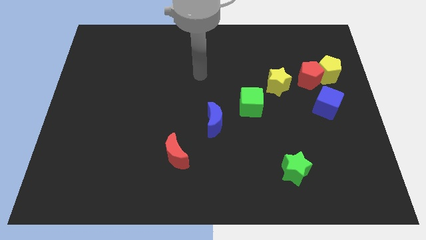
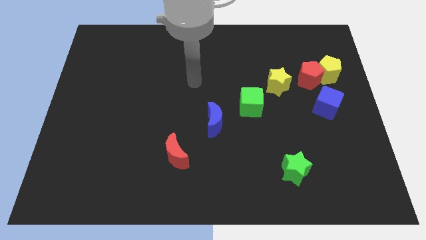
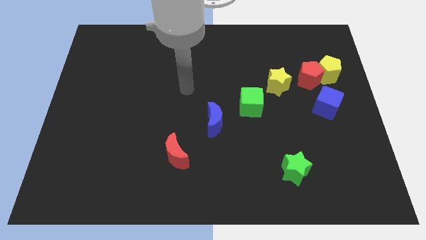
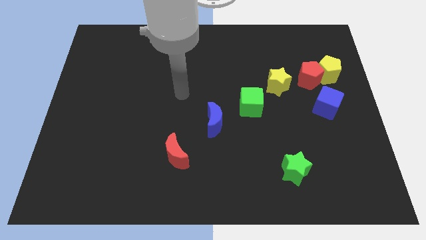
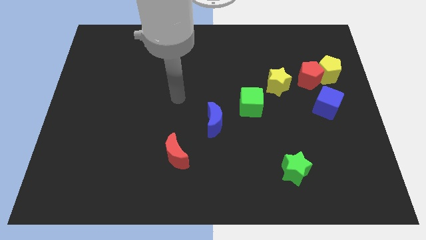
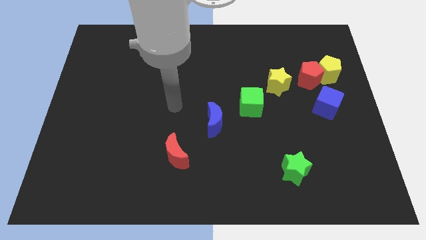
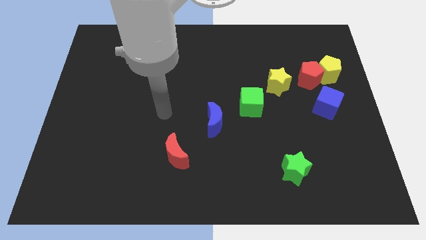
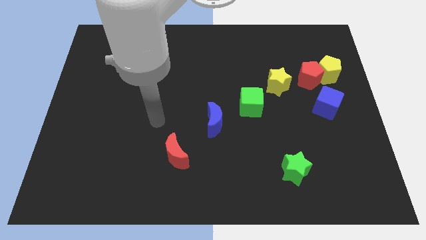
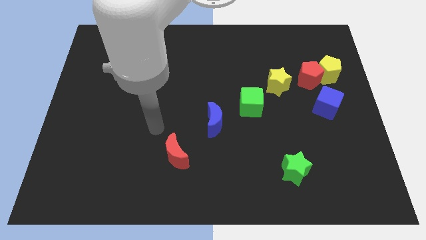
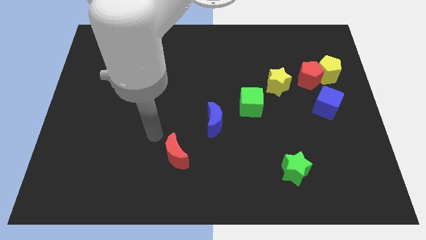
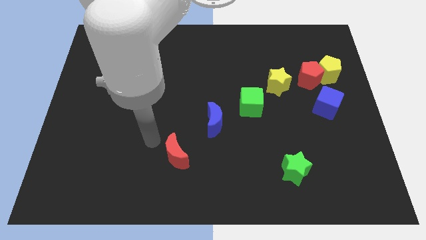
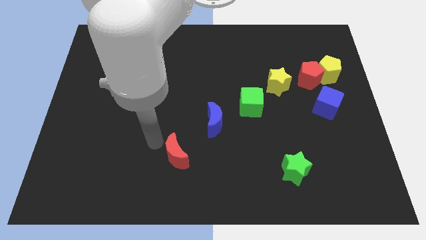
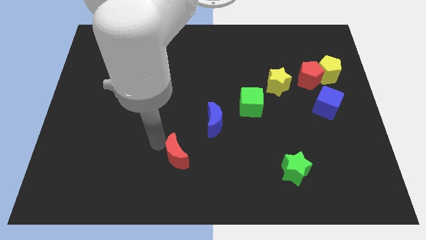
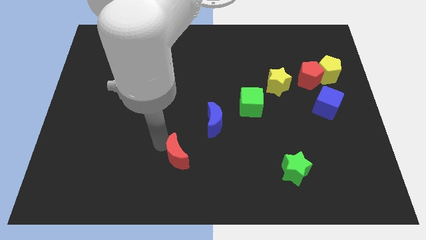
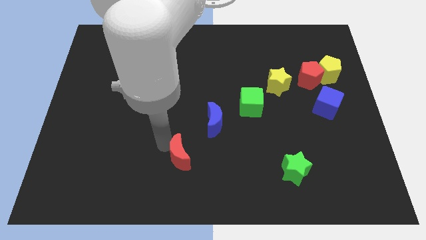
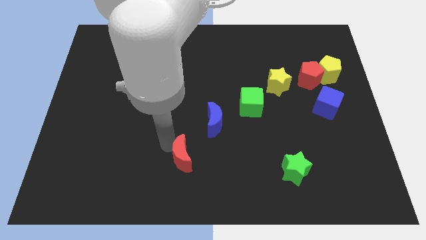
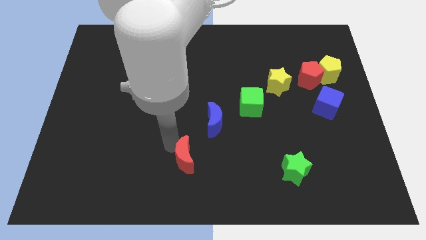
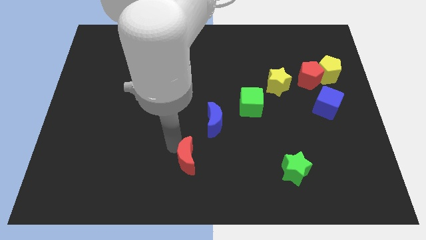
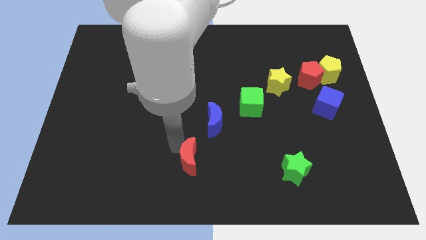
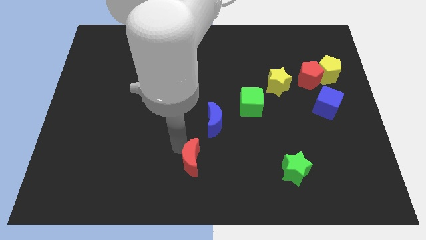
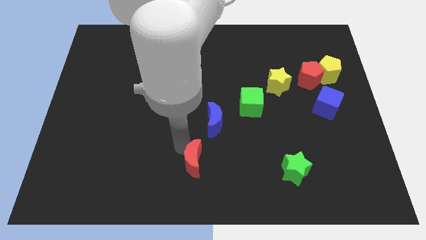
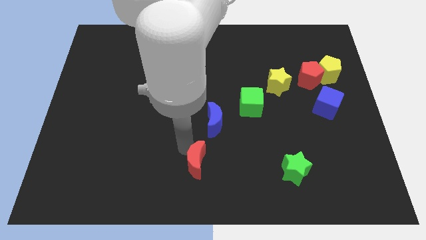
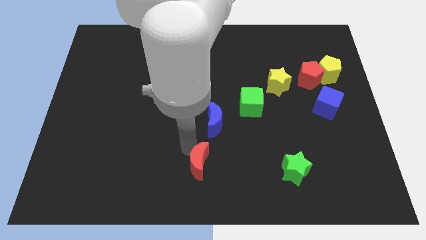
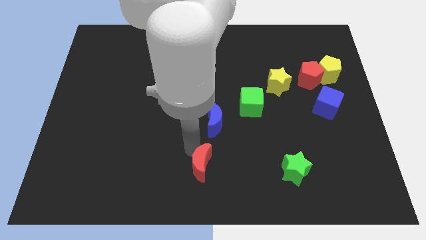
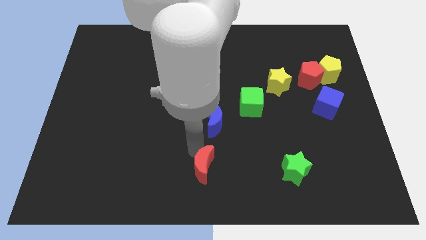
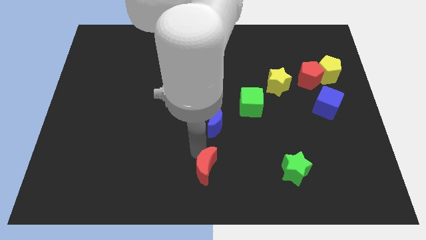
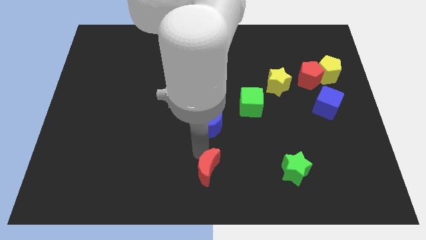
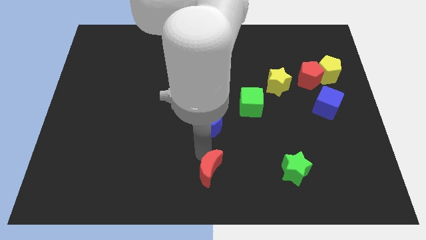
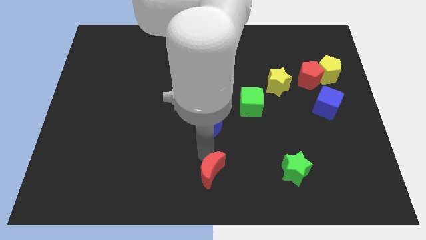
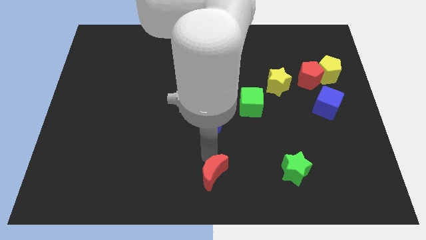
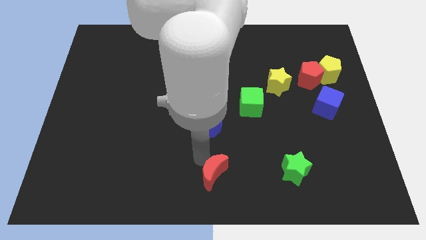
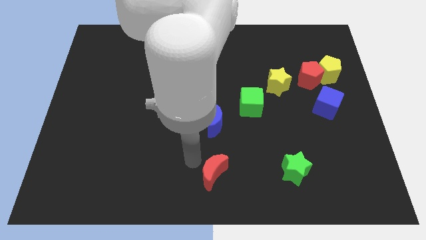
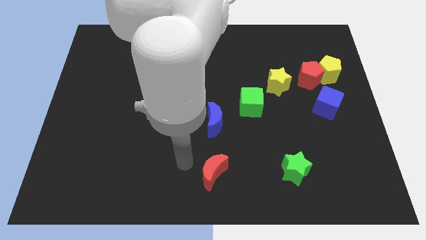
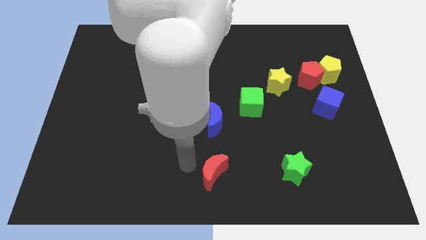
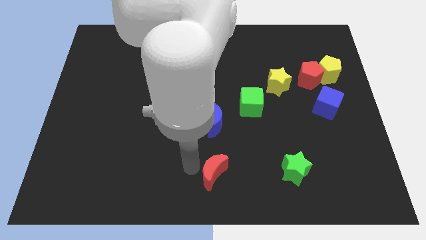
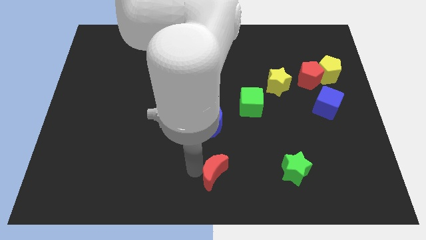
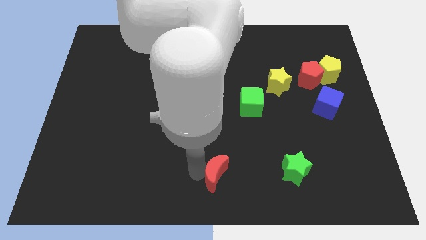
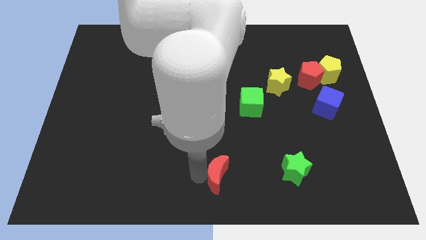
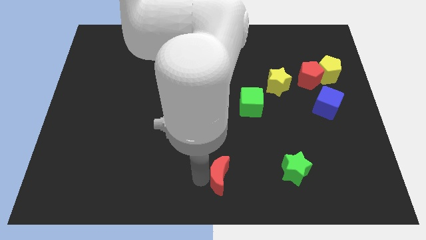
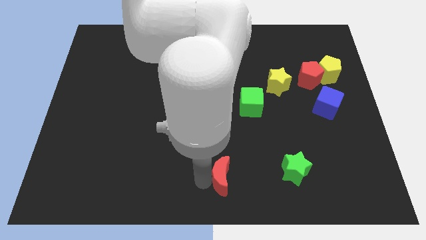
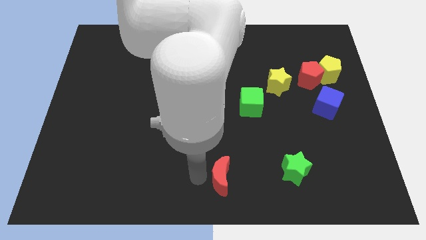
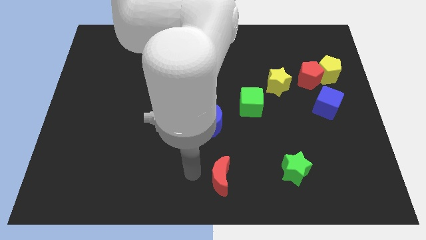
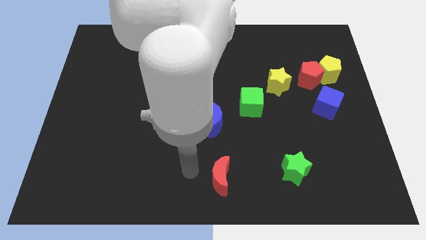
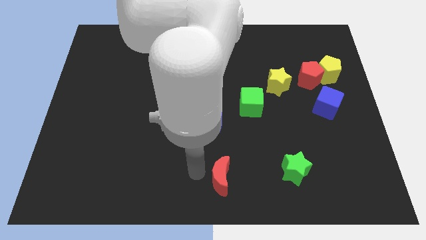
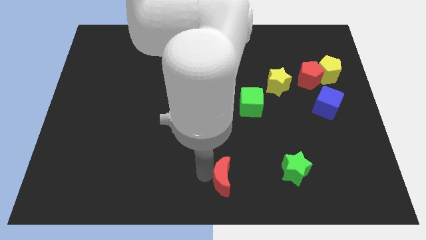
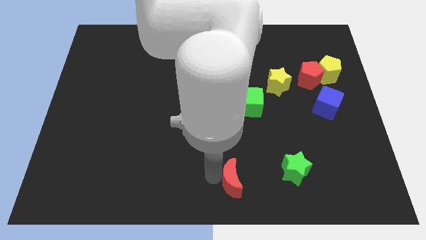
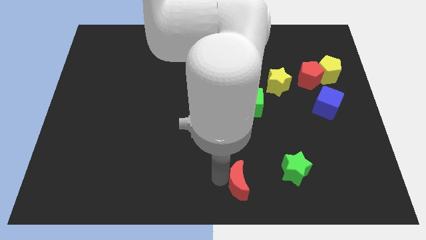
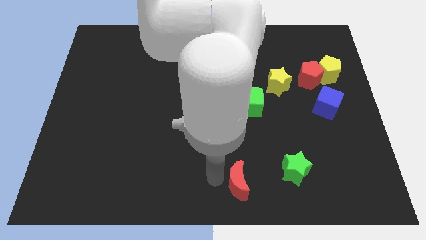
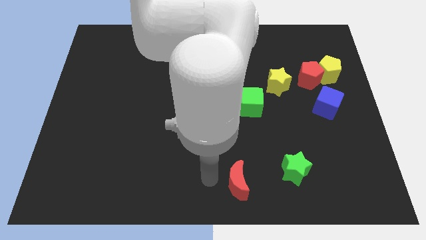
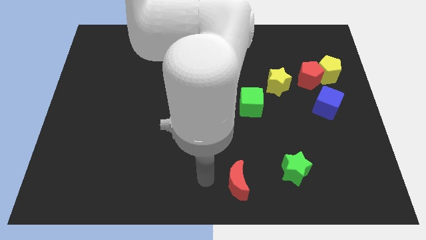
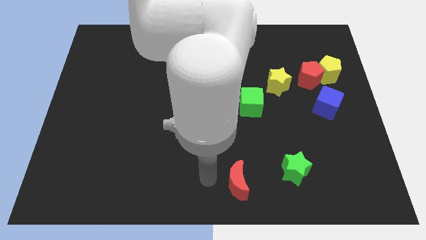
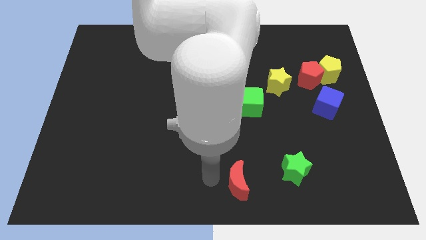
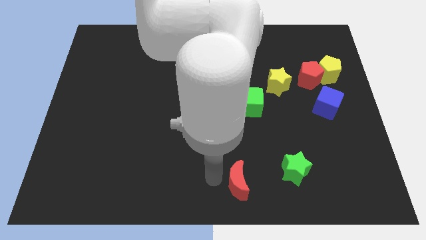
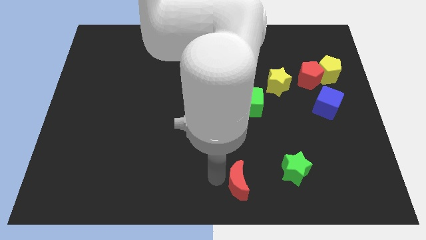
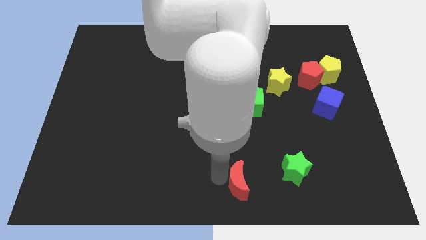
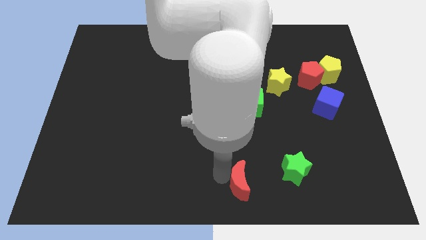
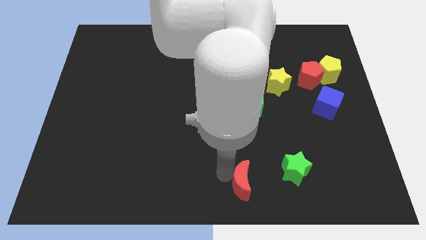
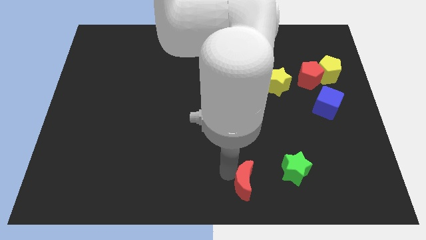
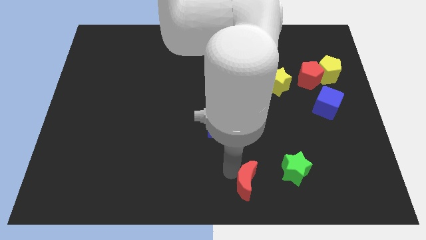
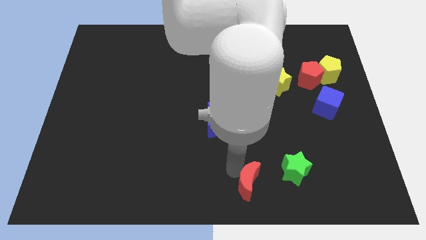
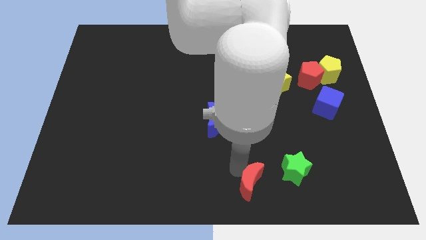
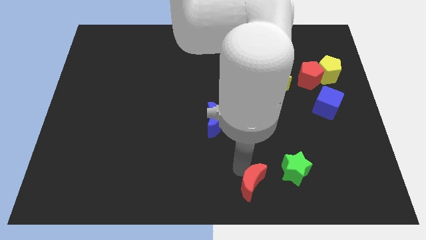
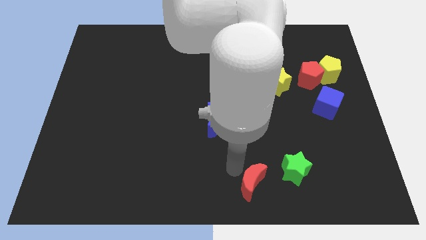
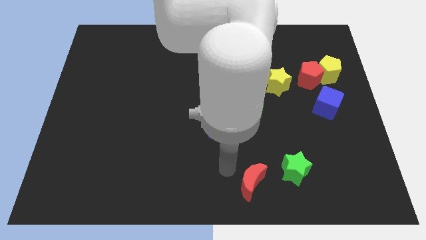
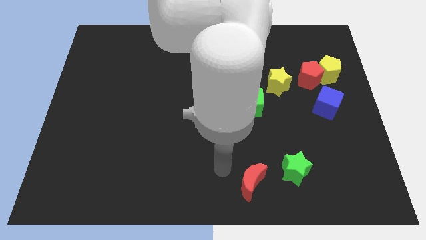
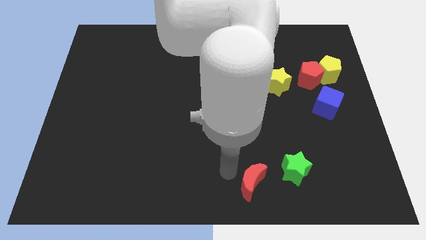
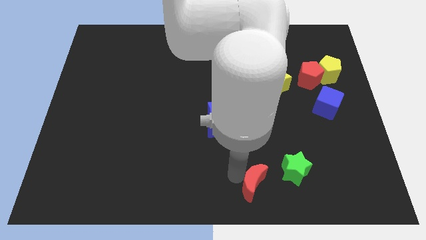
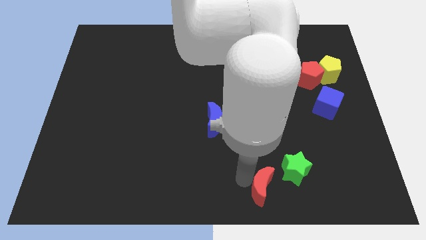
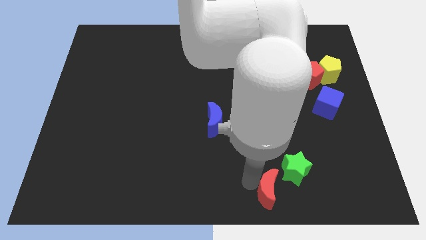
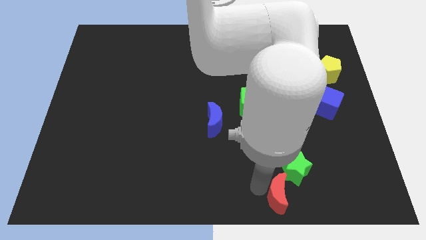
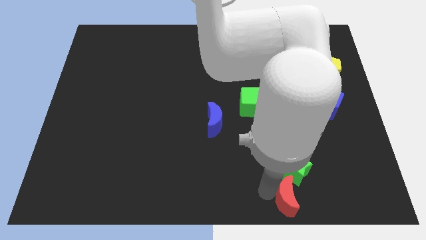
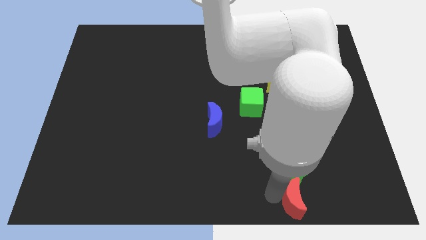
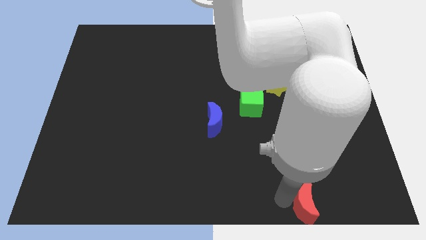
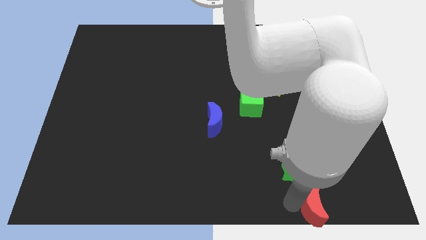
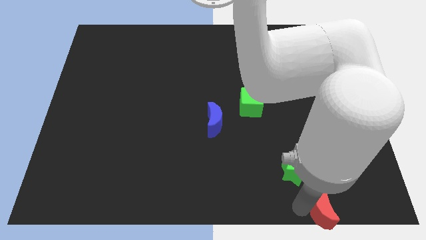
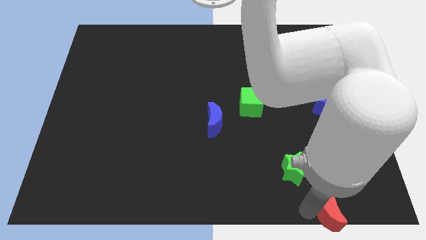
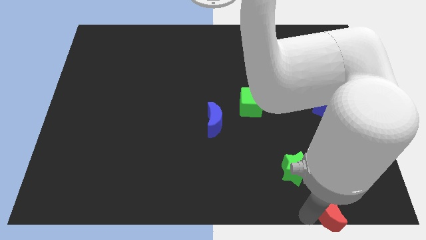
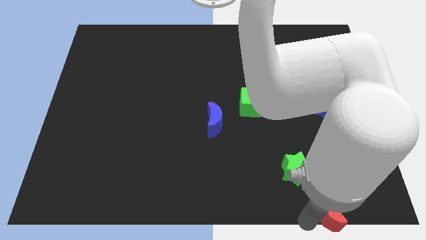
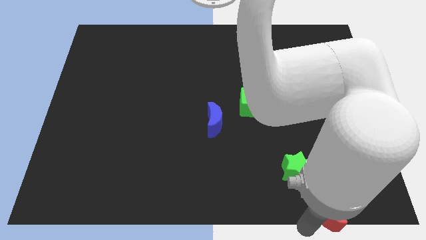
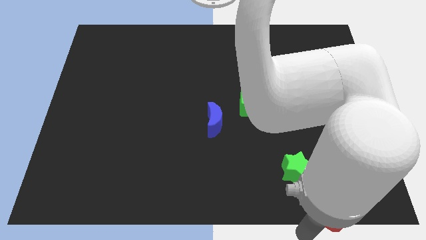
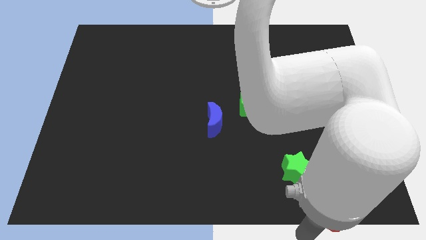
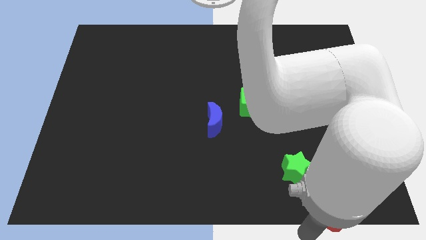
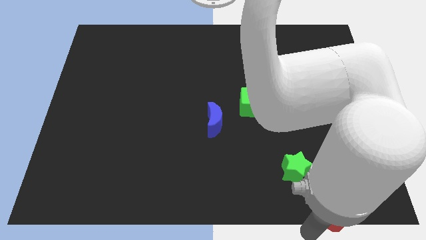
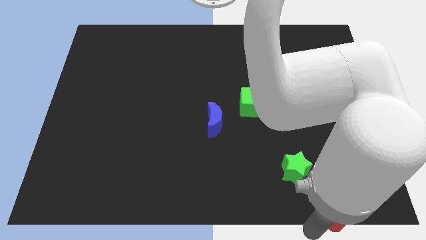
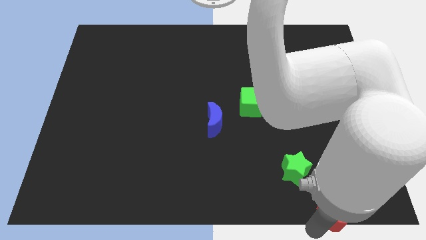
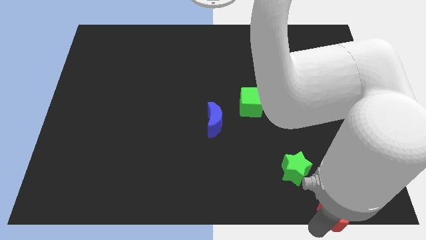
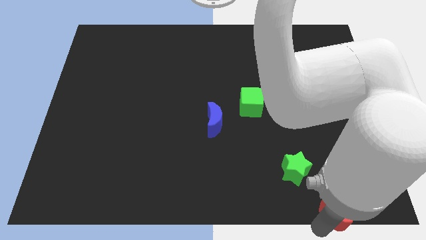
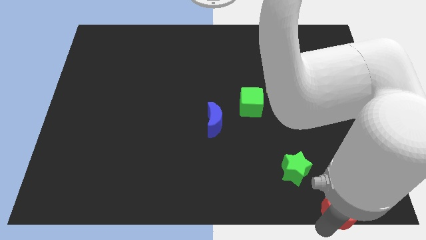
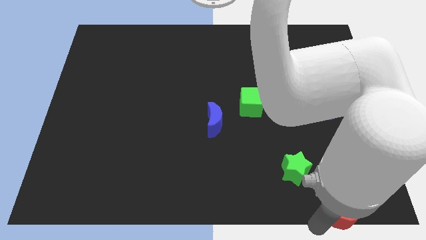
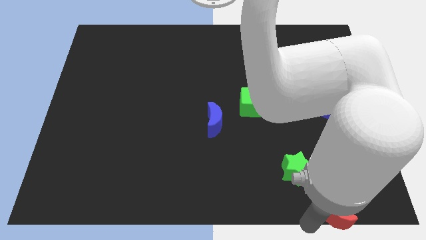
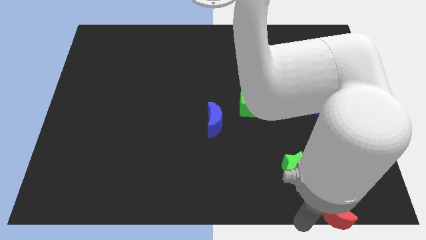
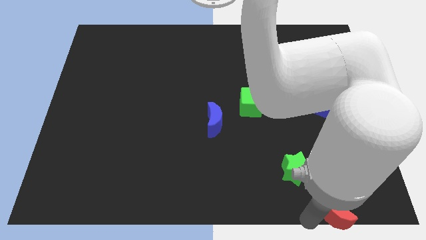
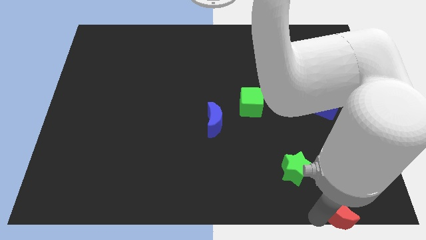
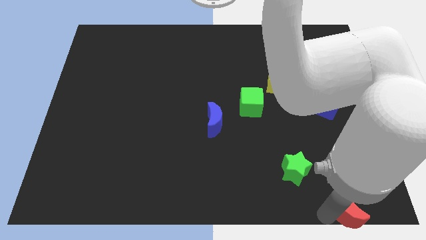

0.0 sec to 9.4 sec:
push the red moon to the bottom right corner
